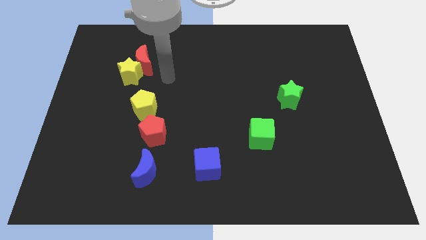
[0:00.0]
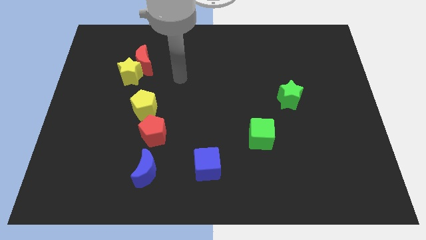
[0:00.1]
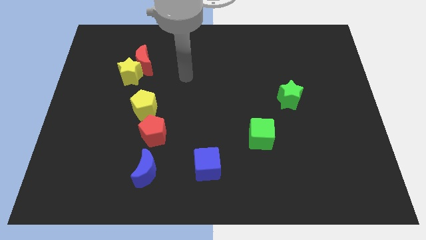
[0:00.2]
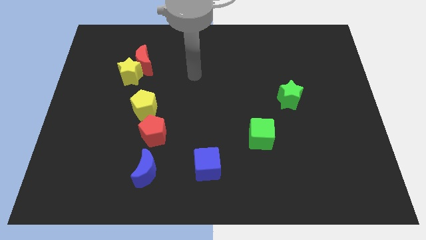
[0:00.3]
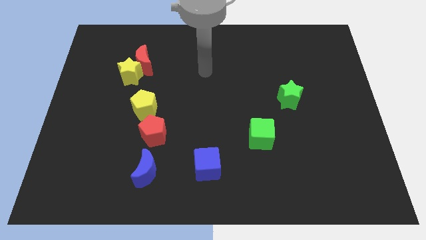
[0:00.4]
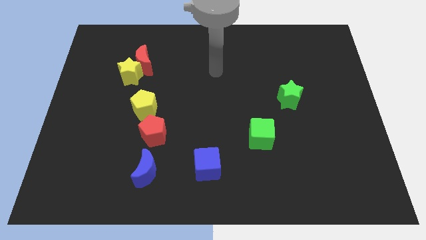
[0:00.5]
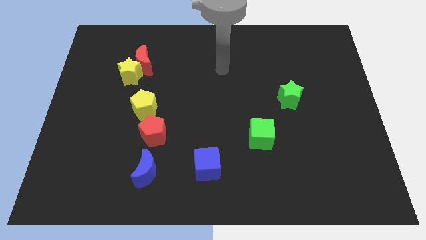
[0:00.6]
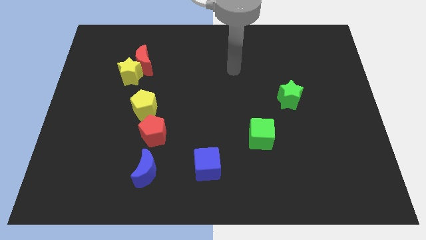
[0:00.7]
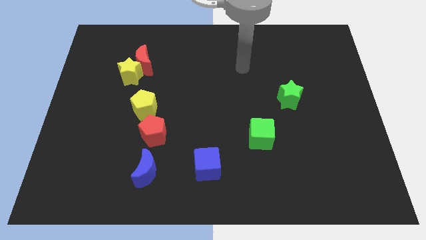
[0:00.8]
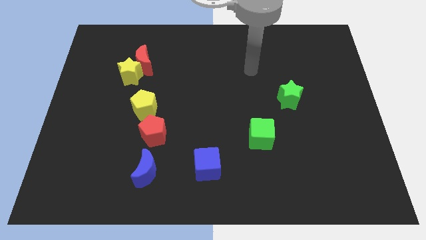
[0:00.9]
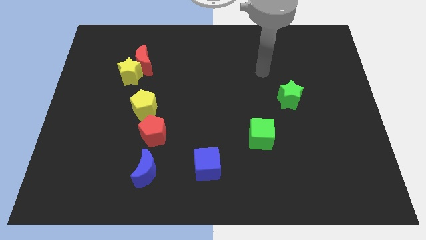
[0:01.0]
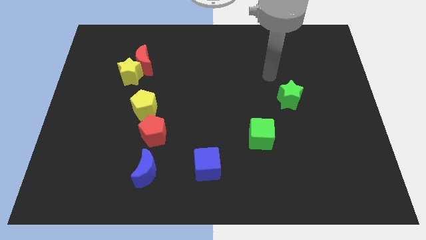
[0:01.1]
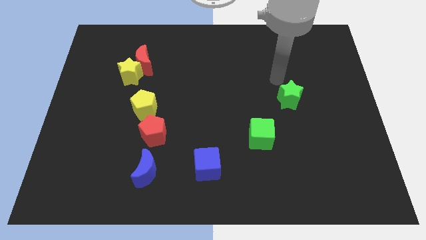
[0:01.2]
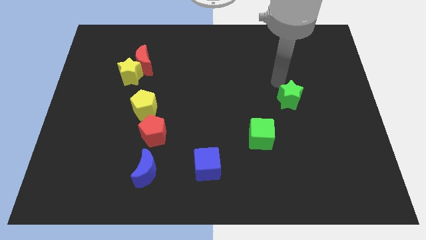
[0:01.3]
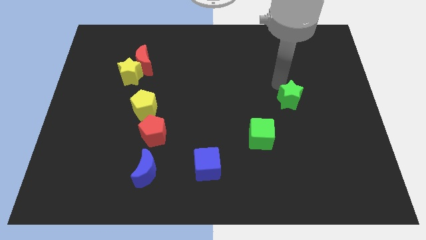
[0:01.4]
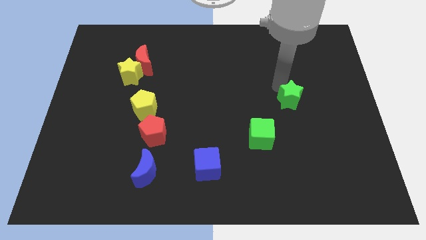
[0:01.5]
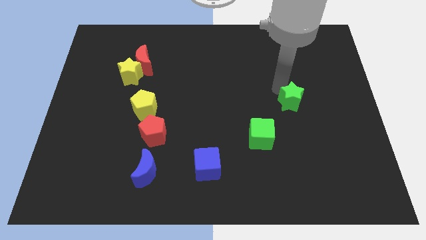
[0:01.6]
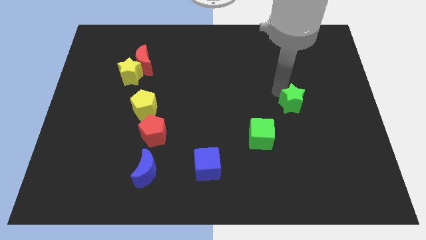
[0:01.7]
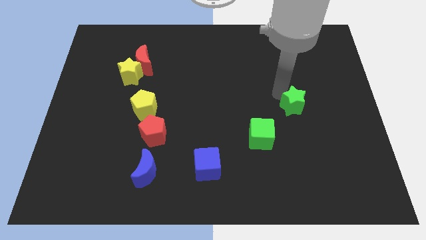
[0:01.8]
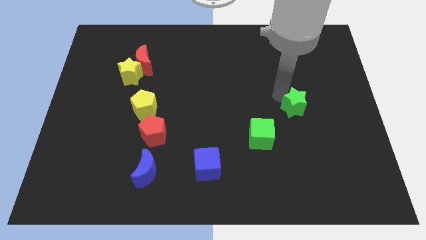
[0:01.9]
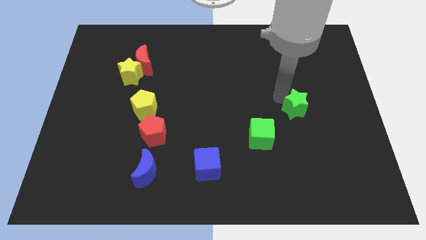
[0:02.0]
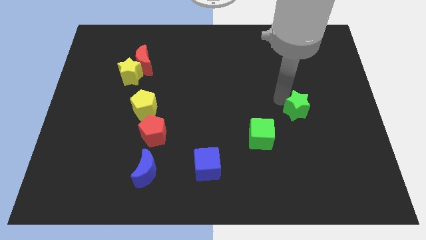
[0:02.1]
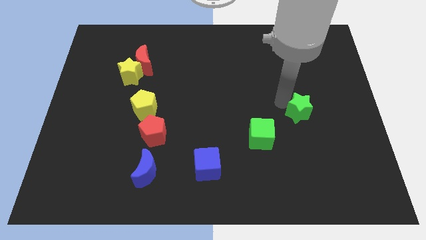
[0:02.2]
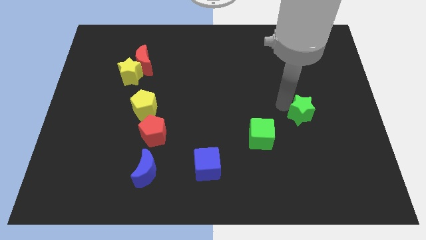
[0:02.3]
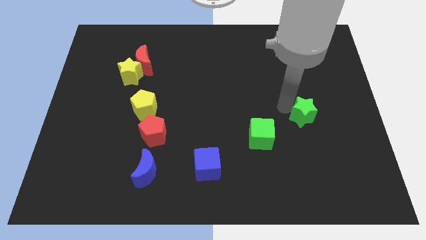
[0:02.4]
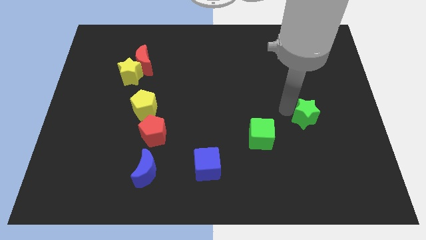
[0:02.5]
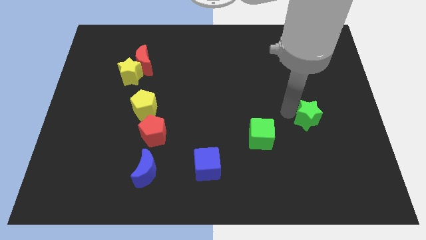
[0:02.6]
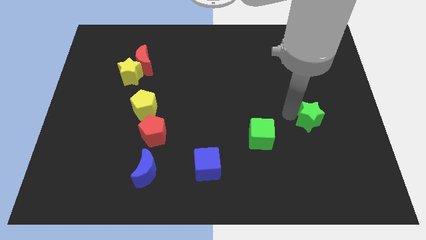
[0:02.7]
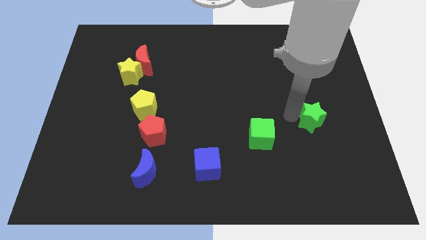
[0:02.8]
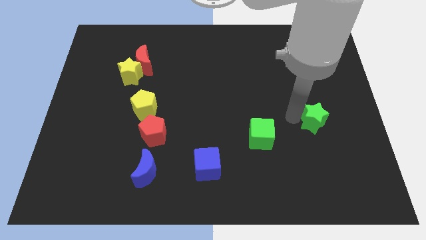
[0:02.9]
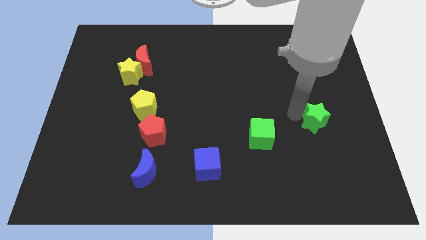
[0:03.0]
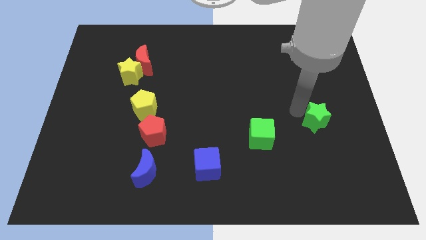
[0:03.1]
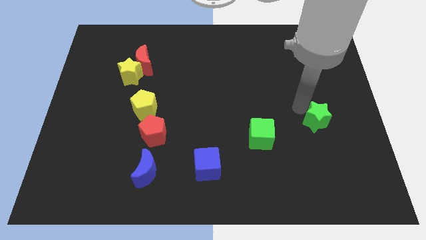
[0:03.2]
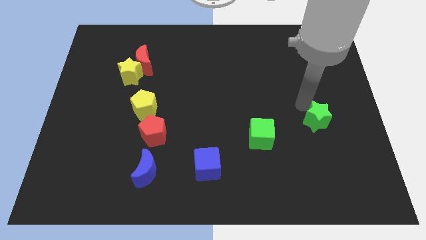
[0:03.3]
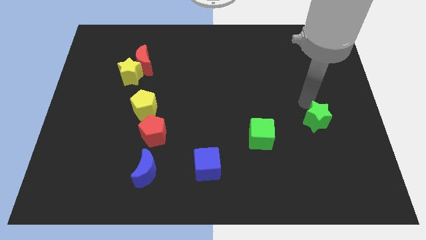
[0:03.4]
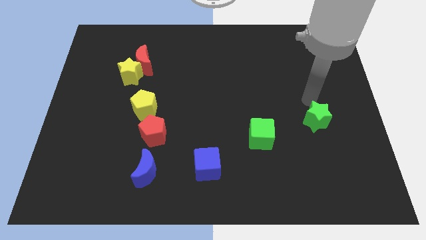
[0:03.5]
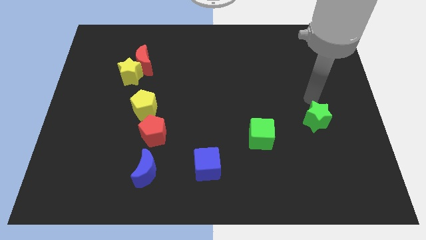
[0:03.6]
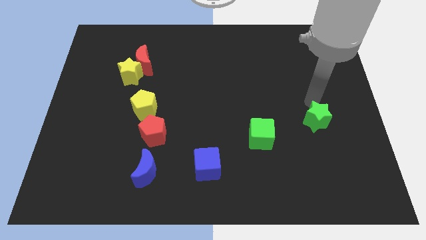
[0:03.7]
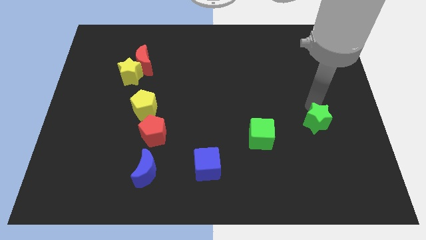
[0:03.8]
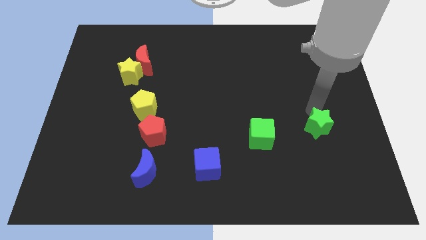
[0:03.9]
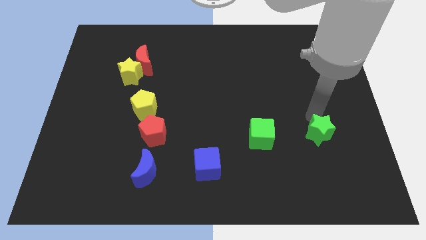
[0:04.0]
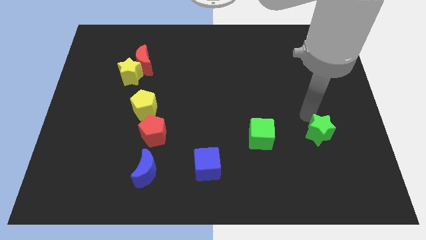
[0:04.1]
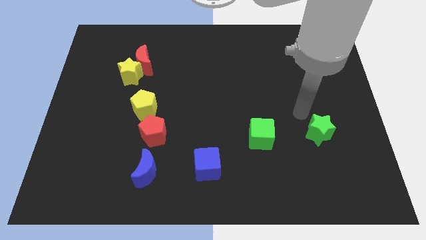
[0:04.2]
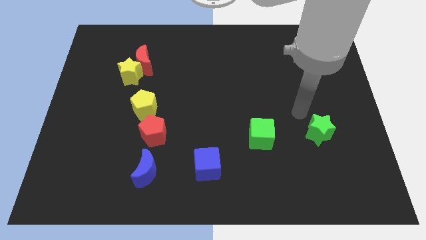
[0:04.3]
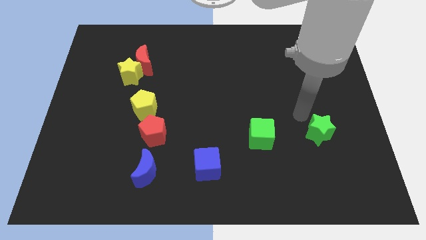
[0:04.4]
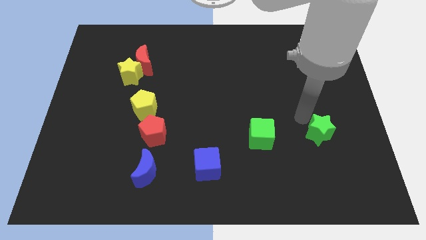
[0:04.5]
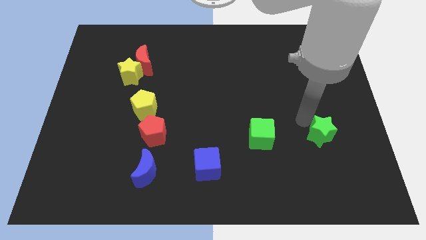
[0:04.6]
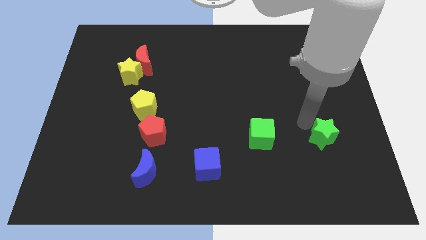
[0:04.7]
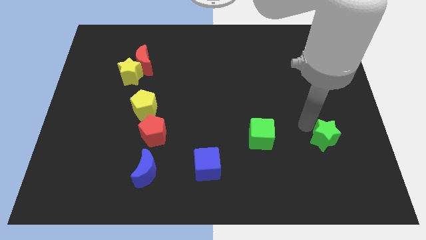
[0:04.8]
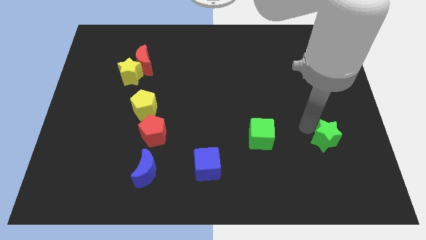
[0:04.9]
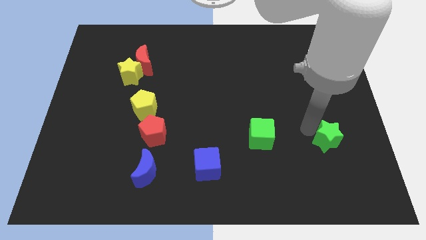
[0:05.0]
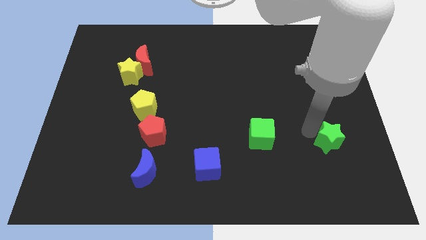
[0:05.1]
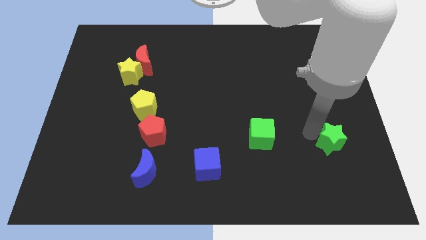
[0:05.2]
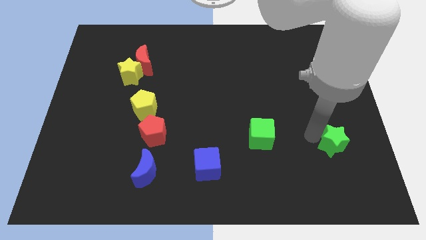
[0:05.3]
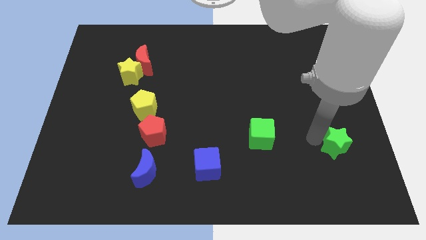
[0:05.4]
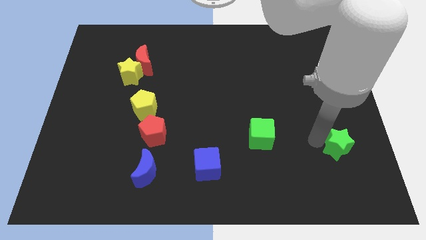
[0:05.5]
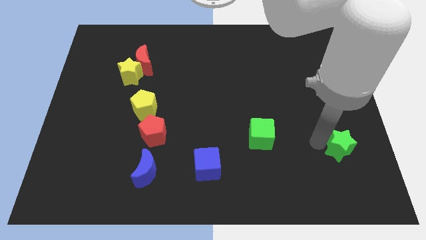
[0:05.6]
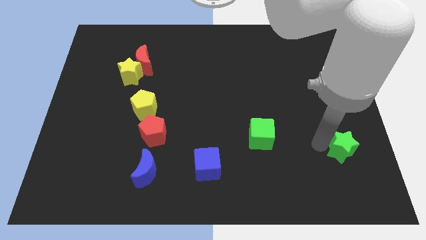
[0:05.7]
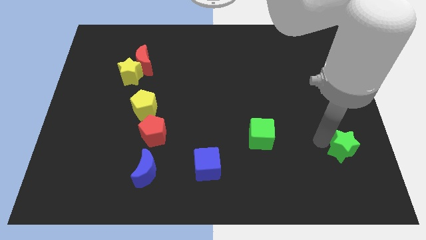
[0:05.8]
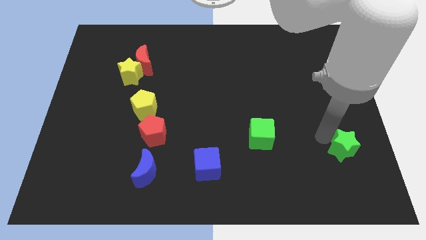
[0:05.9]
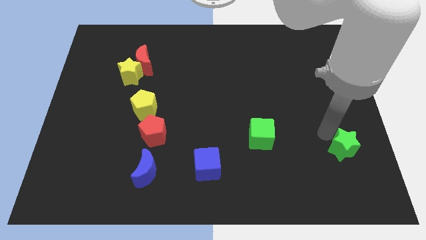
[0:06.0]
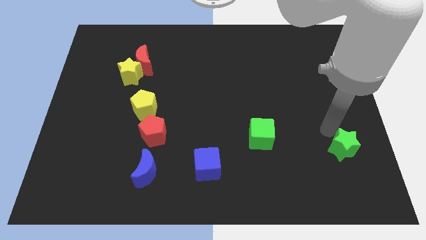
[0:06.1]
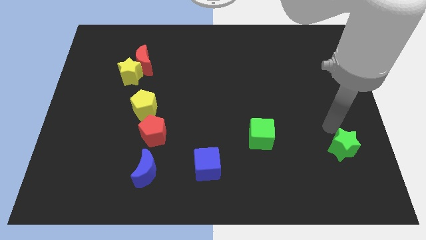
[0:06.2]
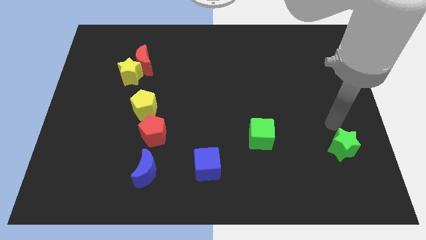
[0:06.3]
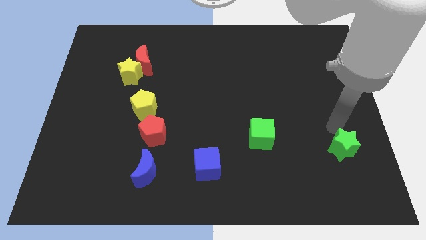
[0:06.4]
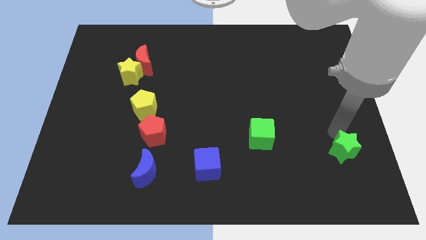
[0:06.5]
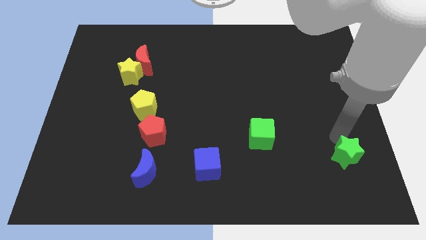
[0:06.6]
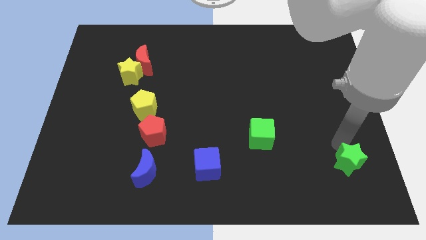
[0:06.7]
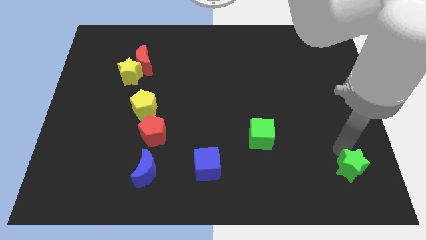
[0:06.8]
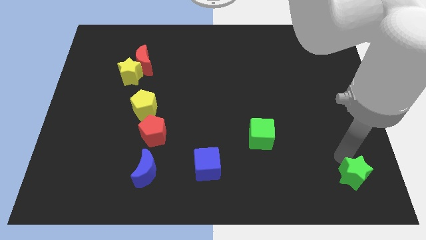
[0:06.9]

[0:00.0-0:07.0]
push the green star to the lower right corner
